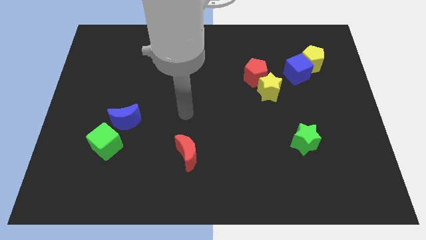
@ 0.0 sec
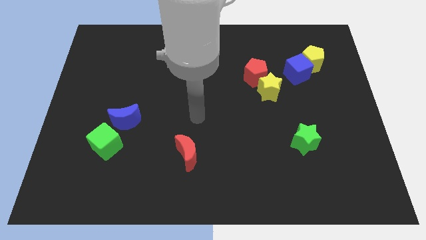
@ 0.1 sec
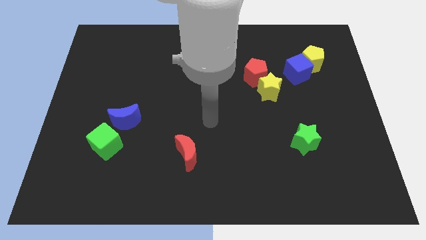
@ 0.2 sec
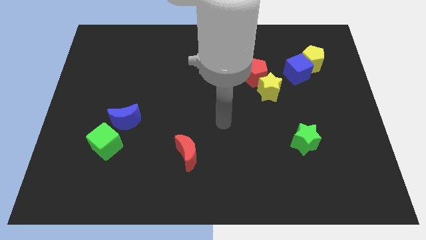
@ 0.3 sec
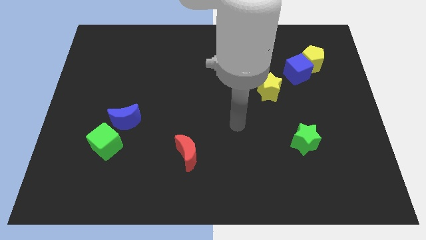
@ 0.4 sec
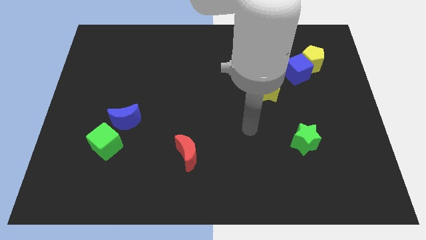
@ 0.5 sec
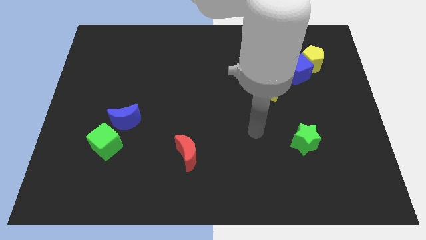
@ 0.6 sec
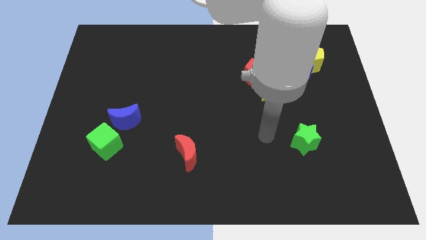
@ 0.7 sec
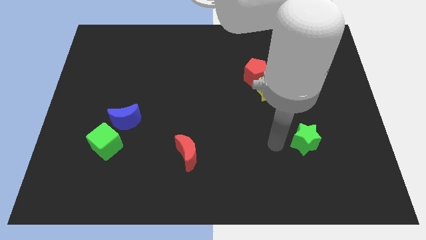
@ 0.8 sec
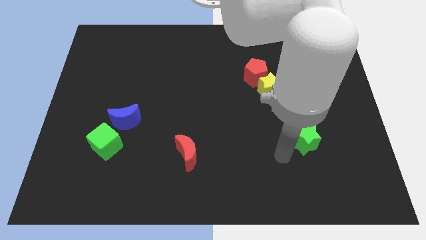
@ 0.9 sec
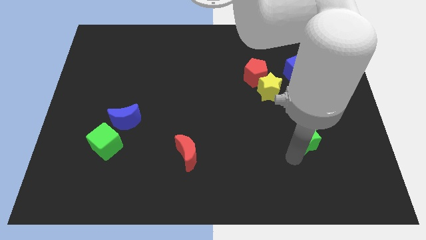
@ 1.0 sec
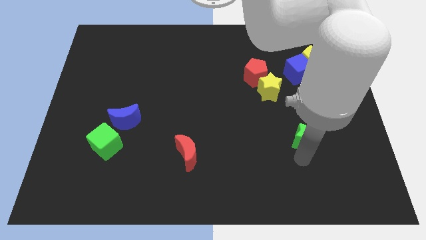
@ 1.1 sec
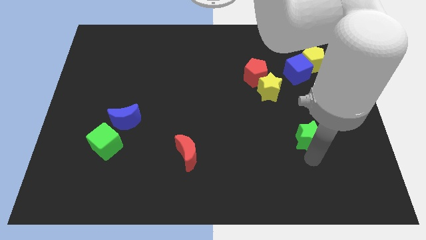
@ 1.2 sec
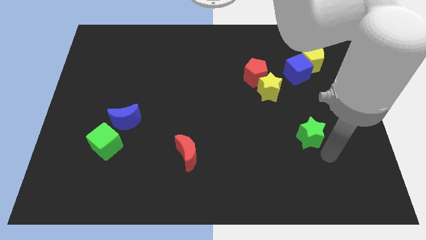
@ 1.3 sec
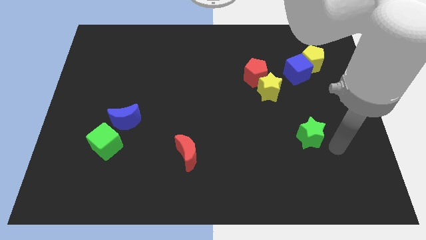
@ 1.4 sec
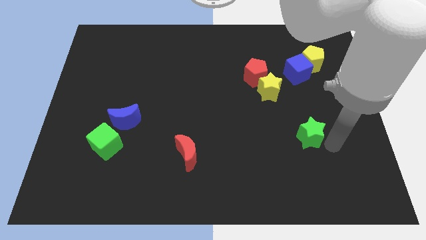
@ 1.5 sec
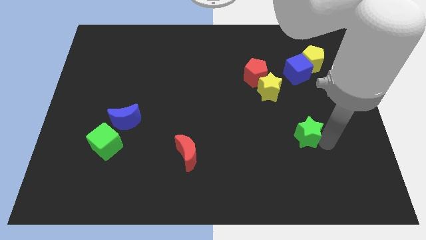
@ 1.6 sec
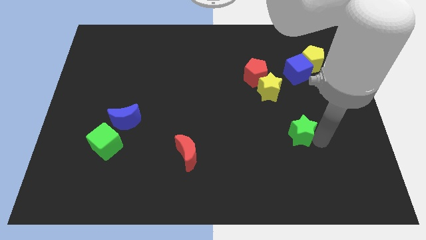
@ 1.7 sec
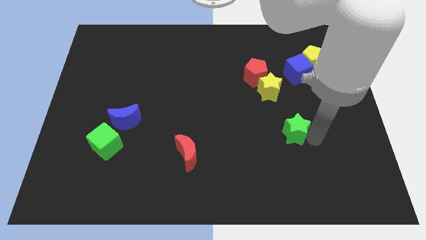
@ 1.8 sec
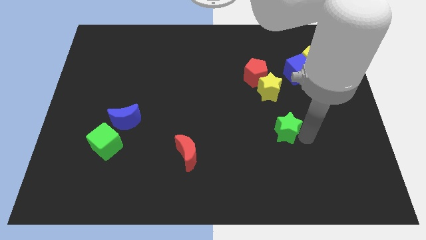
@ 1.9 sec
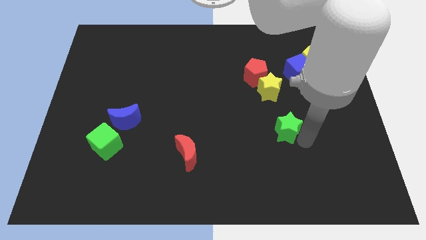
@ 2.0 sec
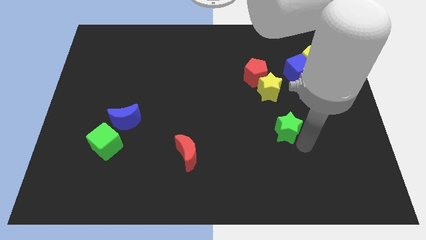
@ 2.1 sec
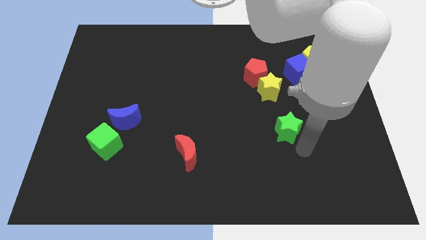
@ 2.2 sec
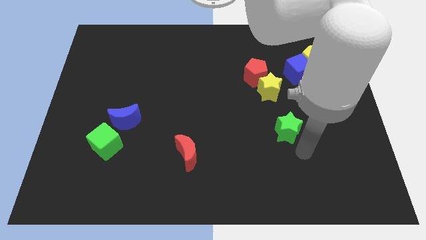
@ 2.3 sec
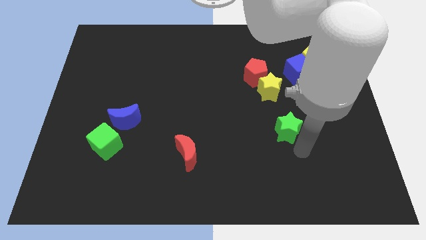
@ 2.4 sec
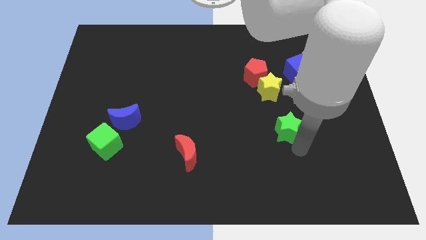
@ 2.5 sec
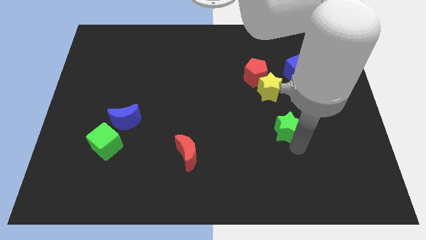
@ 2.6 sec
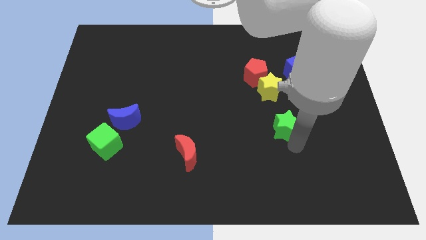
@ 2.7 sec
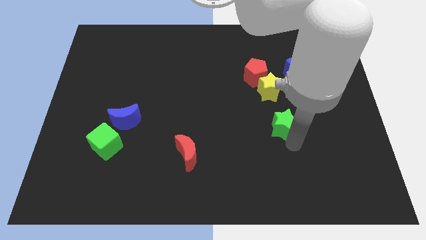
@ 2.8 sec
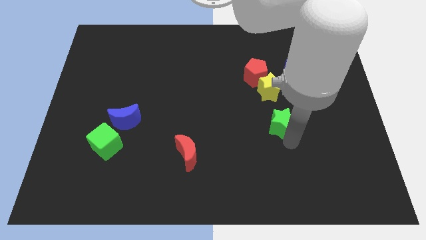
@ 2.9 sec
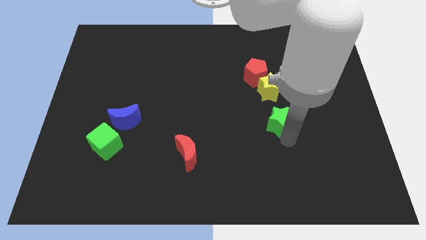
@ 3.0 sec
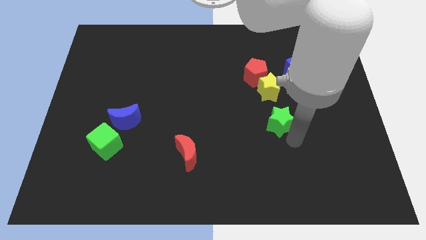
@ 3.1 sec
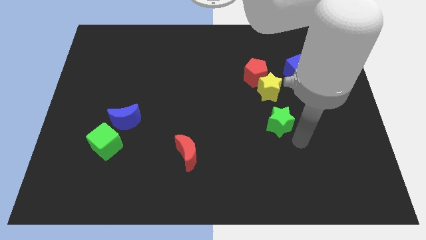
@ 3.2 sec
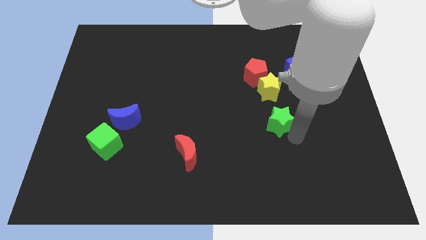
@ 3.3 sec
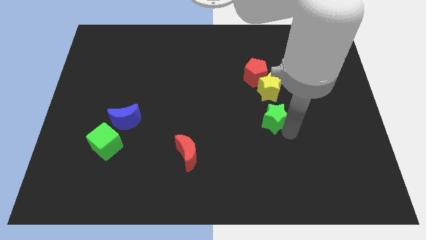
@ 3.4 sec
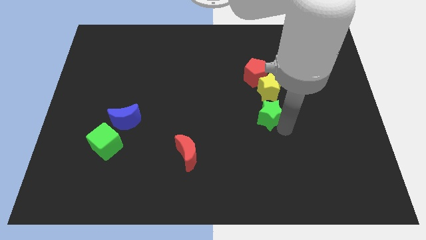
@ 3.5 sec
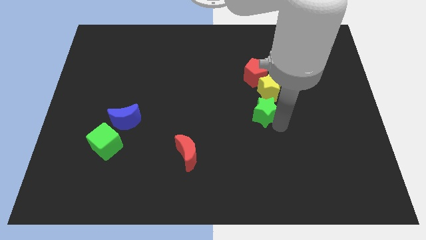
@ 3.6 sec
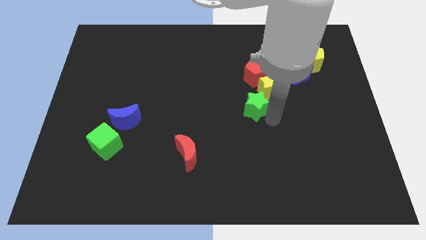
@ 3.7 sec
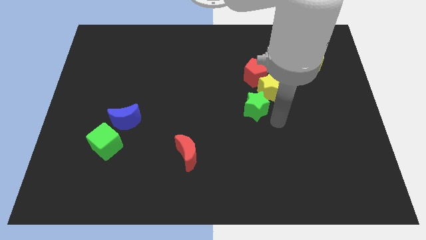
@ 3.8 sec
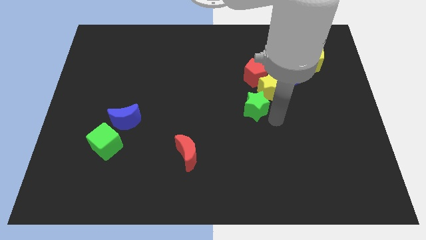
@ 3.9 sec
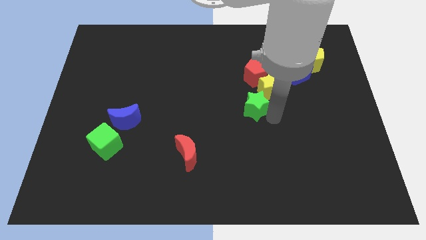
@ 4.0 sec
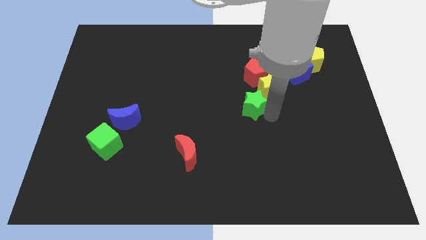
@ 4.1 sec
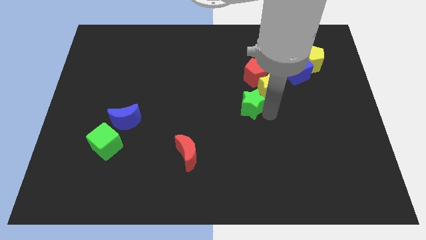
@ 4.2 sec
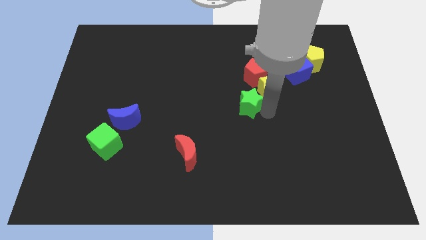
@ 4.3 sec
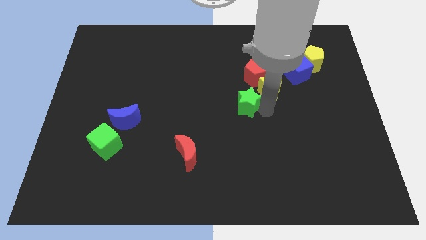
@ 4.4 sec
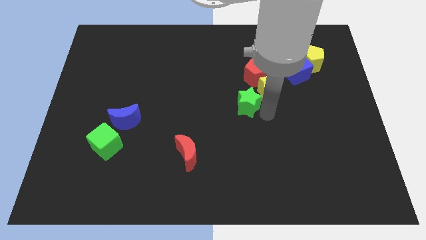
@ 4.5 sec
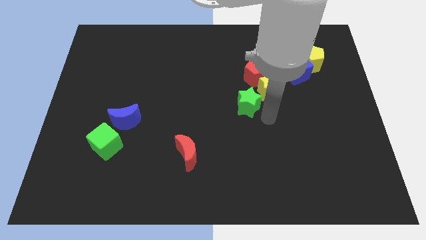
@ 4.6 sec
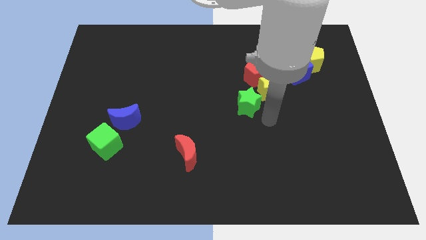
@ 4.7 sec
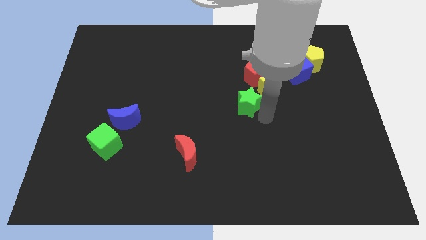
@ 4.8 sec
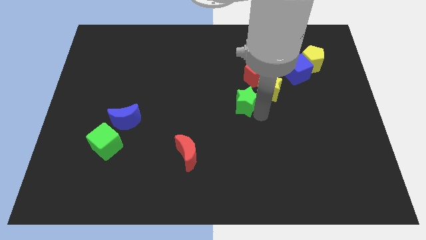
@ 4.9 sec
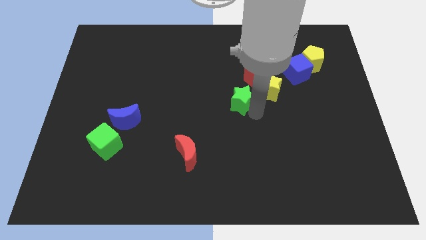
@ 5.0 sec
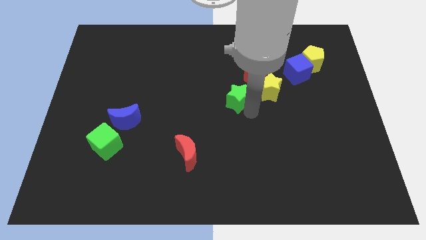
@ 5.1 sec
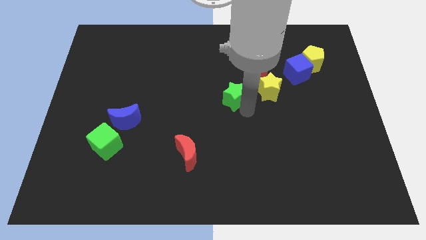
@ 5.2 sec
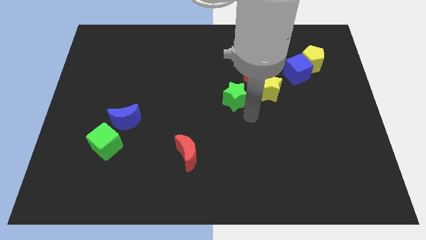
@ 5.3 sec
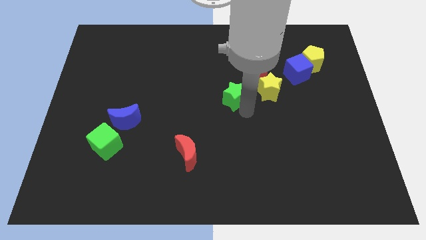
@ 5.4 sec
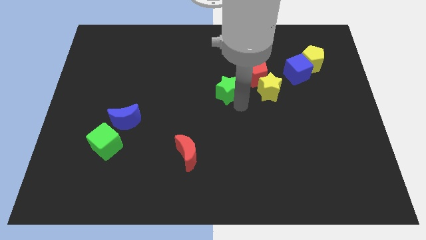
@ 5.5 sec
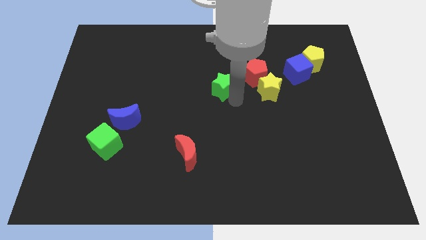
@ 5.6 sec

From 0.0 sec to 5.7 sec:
move the green star left of the red pentagon
